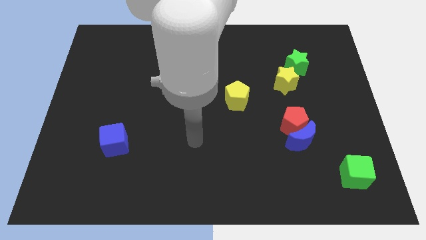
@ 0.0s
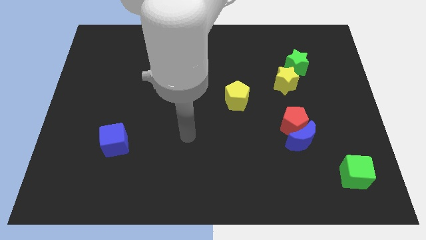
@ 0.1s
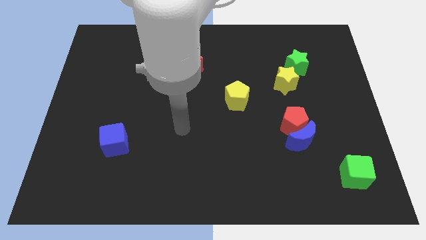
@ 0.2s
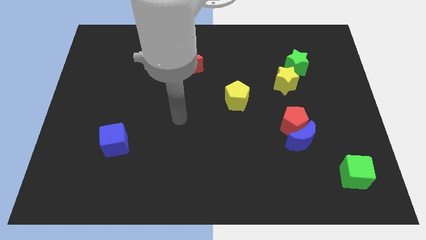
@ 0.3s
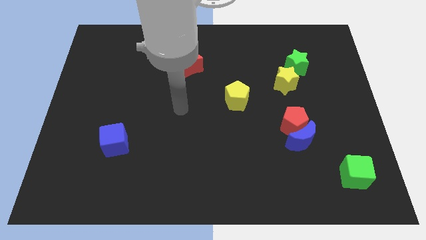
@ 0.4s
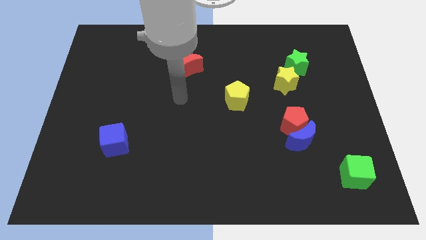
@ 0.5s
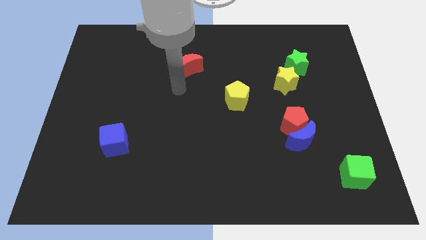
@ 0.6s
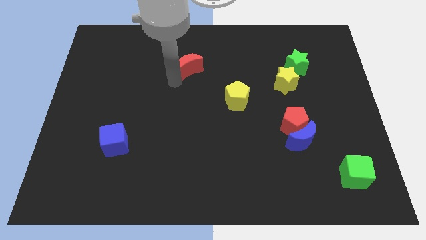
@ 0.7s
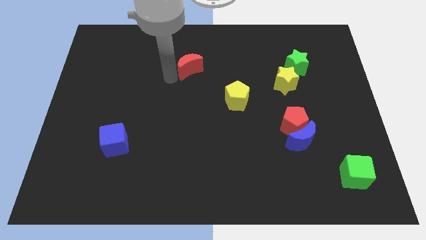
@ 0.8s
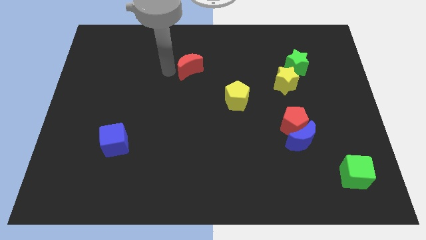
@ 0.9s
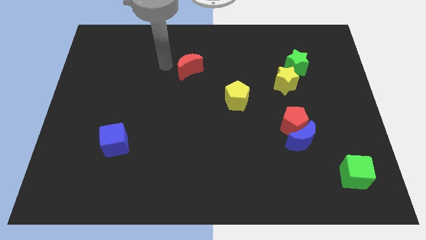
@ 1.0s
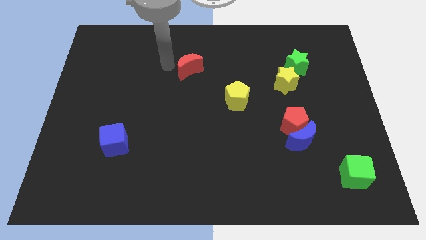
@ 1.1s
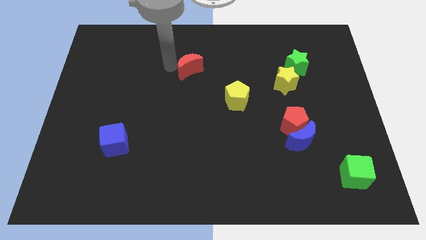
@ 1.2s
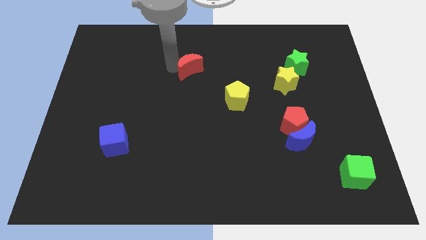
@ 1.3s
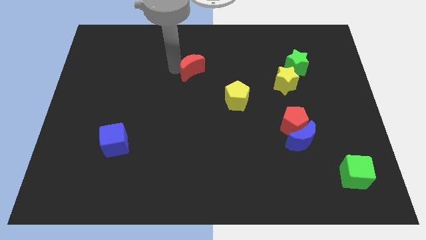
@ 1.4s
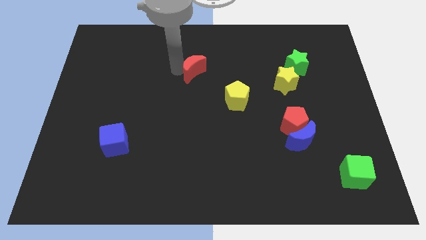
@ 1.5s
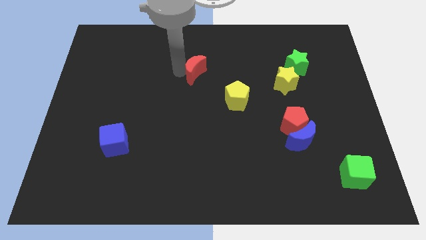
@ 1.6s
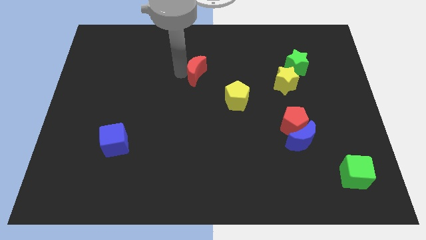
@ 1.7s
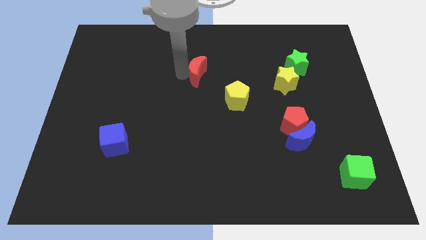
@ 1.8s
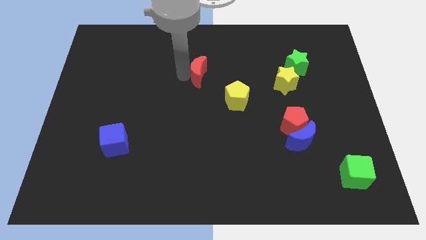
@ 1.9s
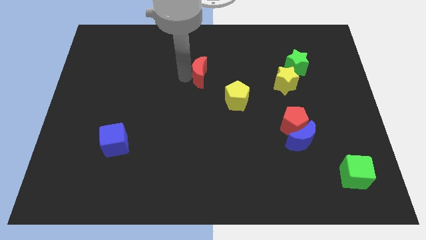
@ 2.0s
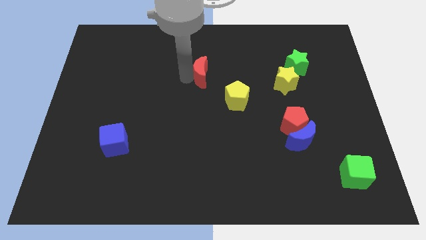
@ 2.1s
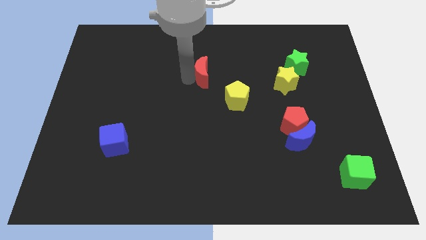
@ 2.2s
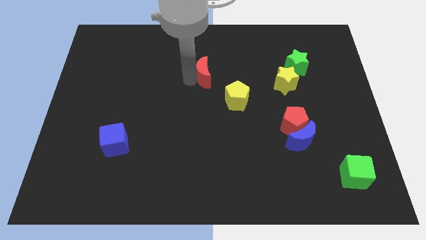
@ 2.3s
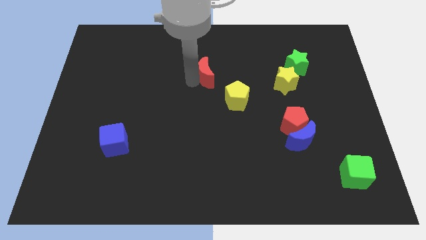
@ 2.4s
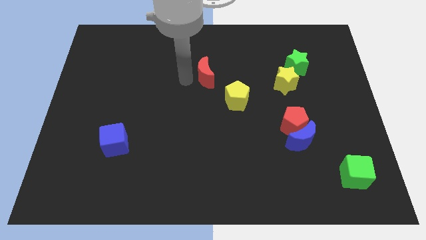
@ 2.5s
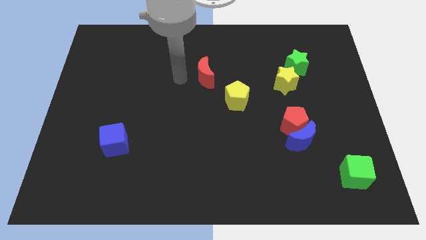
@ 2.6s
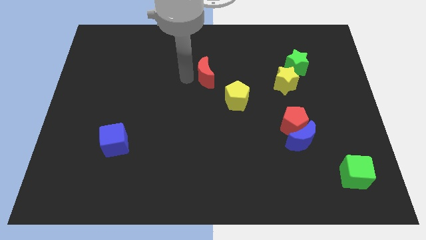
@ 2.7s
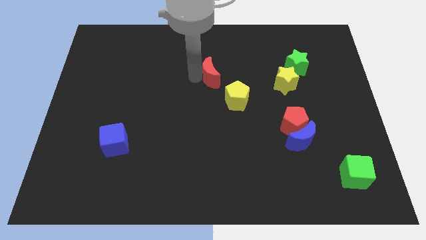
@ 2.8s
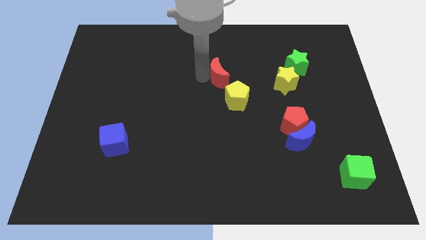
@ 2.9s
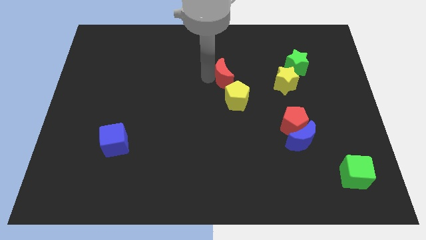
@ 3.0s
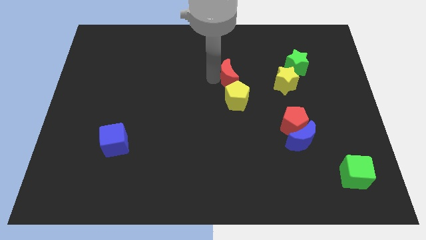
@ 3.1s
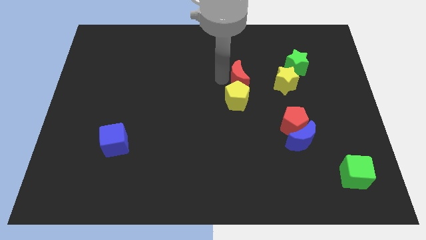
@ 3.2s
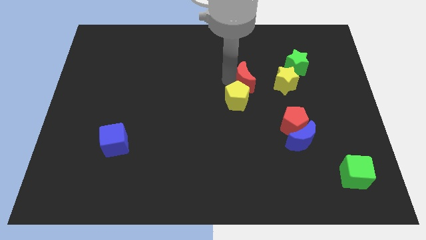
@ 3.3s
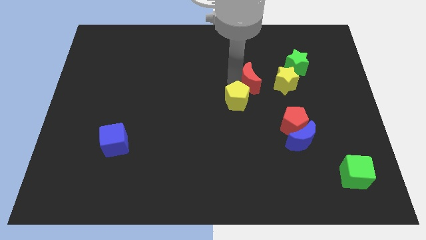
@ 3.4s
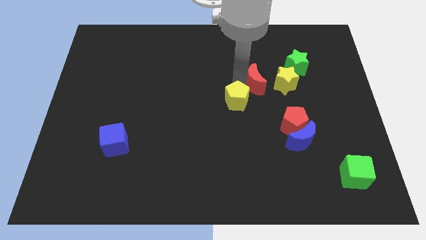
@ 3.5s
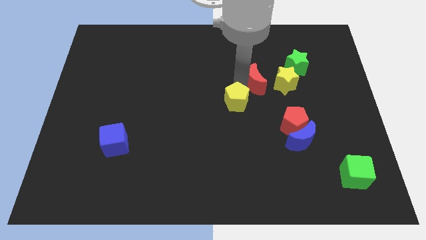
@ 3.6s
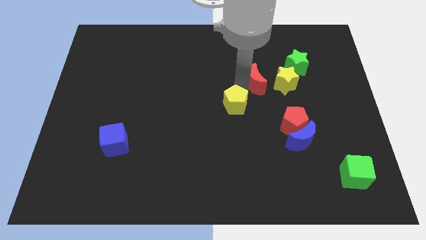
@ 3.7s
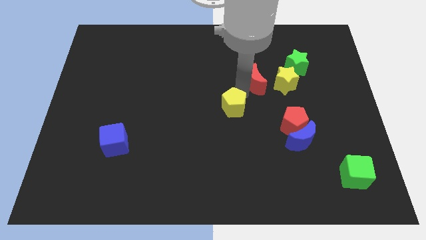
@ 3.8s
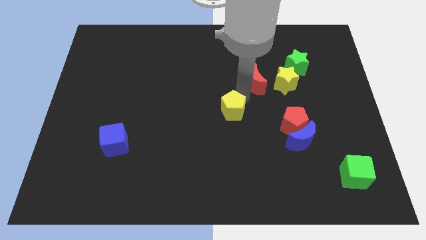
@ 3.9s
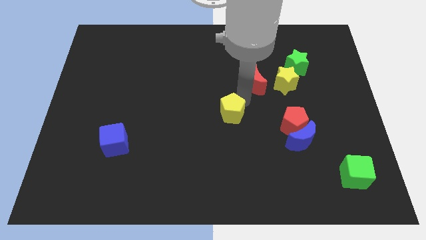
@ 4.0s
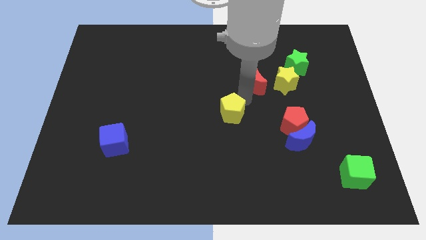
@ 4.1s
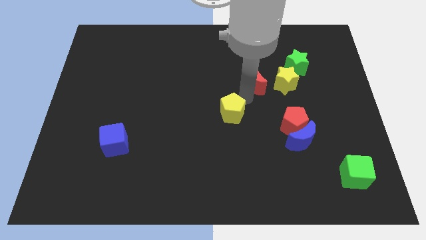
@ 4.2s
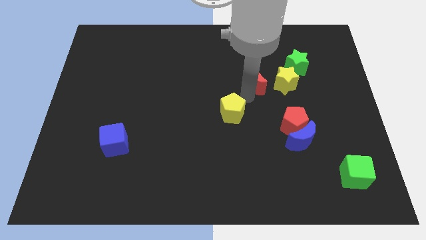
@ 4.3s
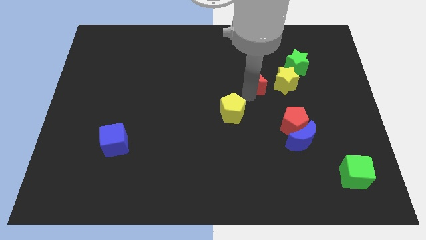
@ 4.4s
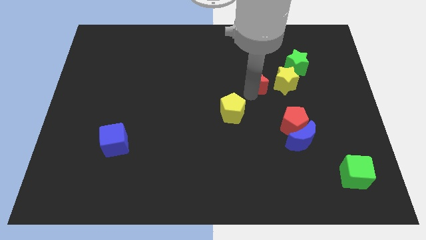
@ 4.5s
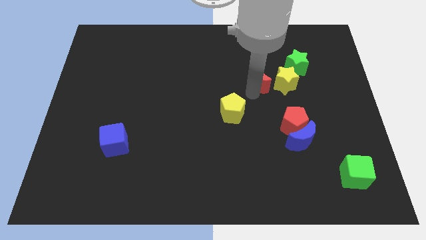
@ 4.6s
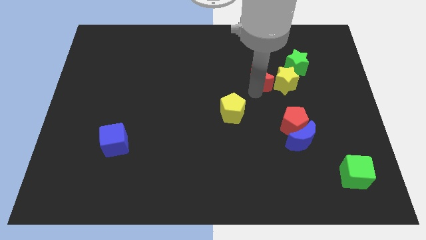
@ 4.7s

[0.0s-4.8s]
put the red moon towards the yellow star

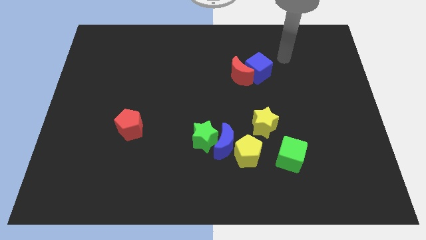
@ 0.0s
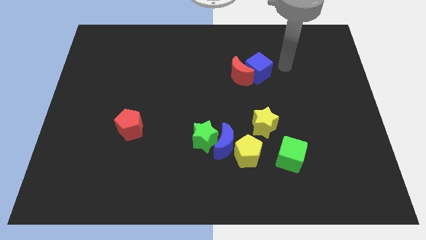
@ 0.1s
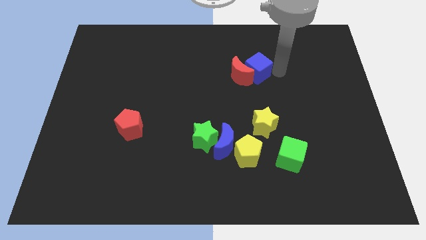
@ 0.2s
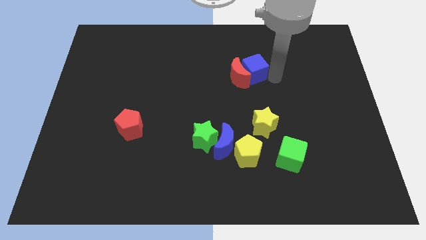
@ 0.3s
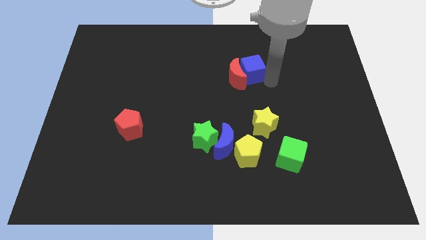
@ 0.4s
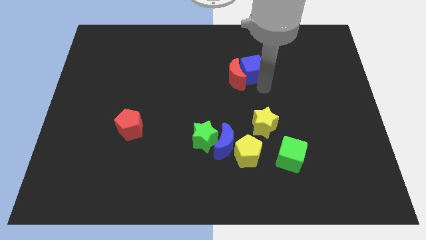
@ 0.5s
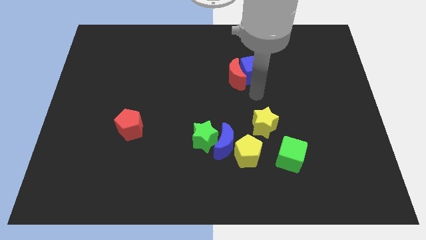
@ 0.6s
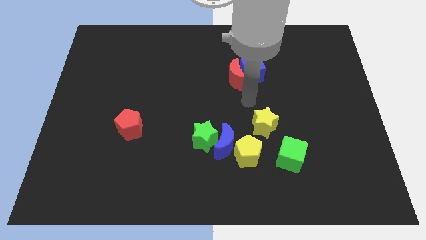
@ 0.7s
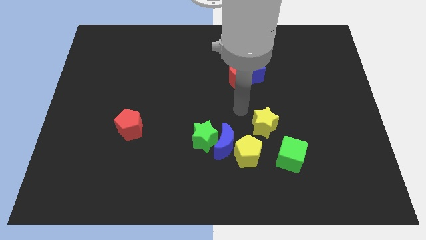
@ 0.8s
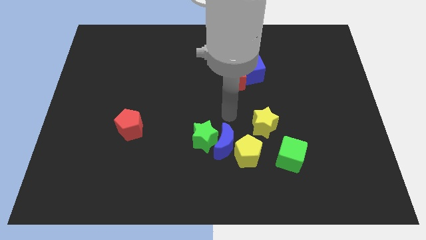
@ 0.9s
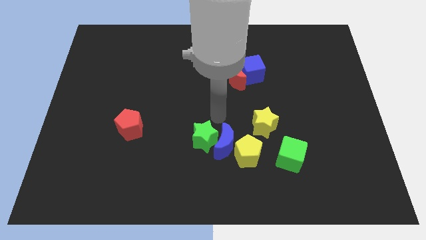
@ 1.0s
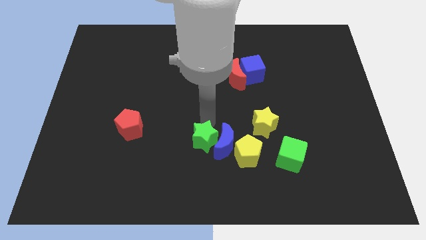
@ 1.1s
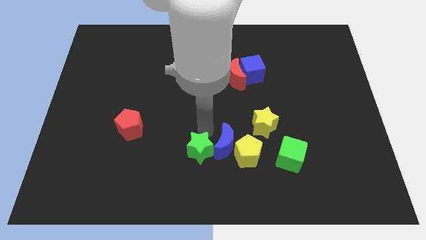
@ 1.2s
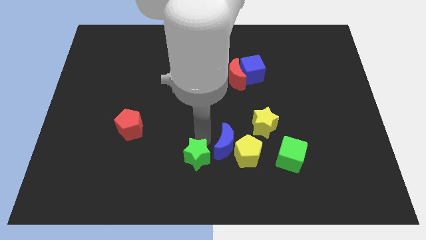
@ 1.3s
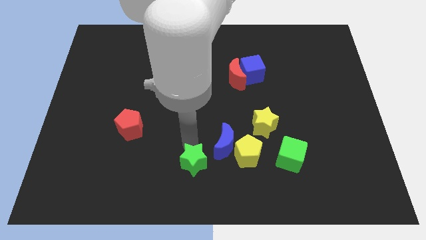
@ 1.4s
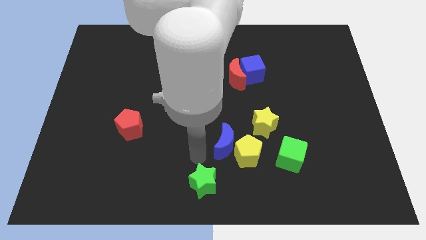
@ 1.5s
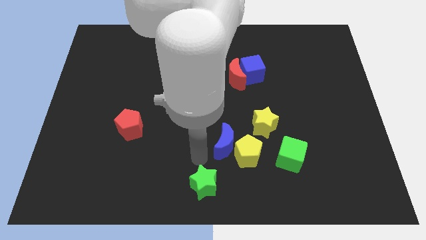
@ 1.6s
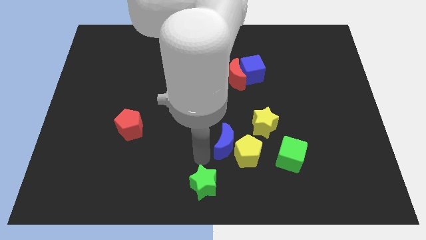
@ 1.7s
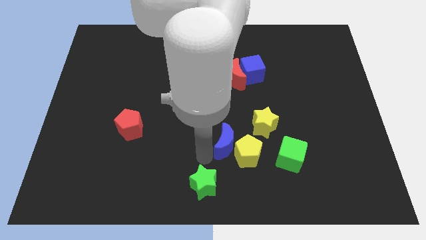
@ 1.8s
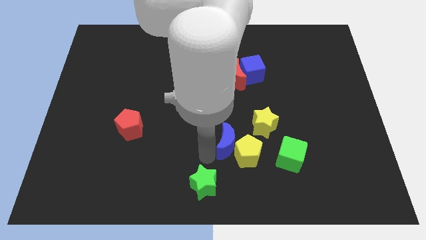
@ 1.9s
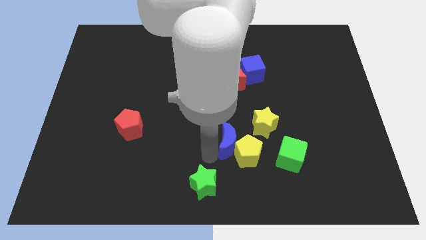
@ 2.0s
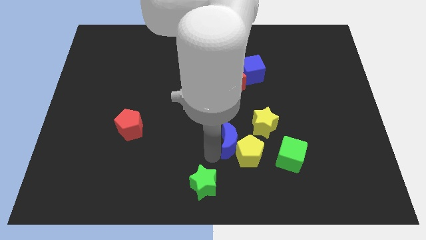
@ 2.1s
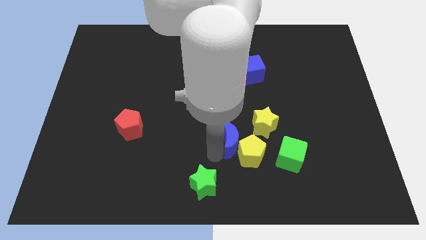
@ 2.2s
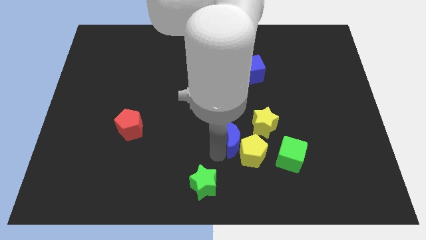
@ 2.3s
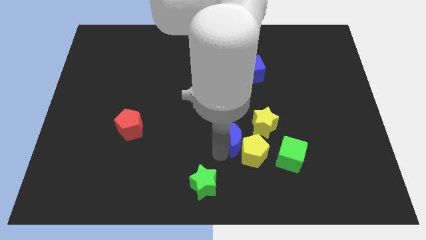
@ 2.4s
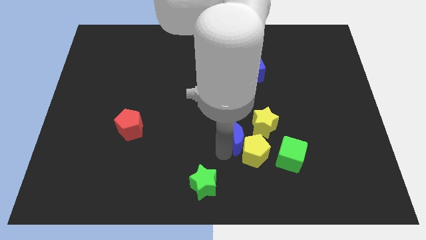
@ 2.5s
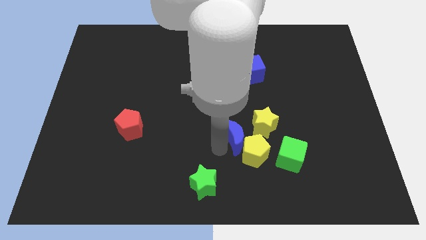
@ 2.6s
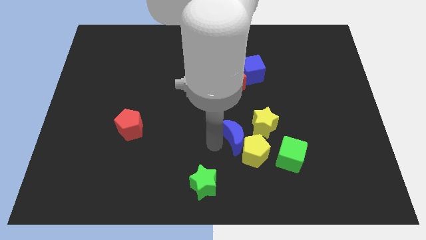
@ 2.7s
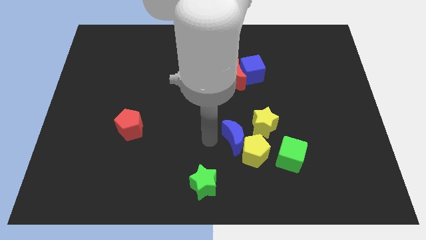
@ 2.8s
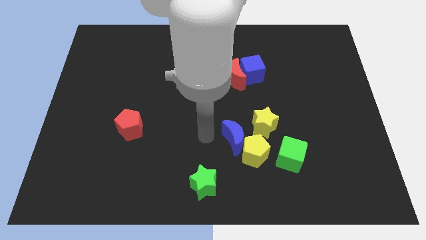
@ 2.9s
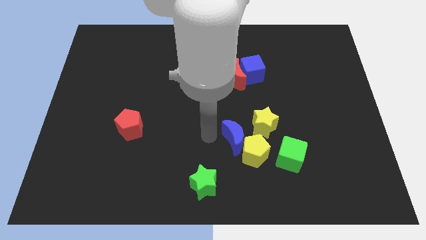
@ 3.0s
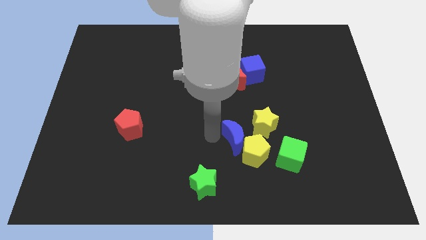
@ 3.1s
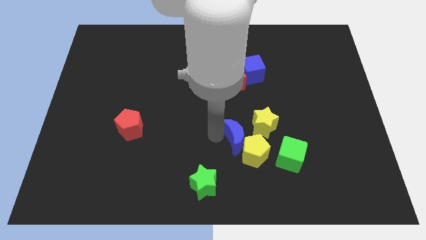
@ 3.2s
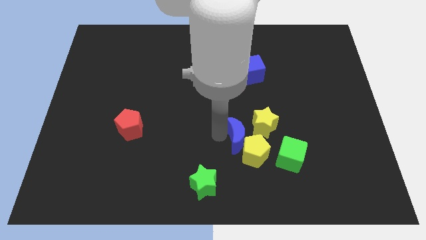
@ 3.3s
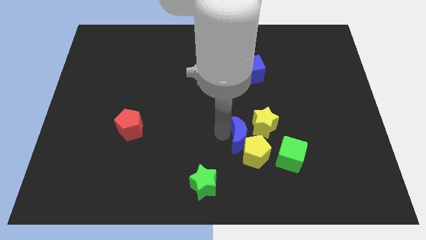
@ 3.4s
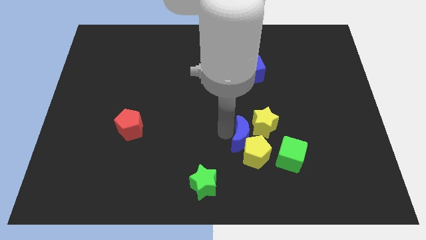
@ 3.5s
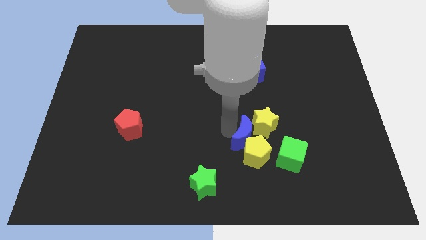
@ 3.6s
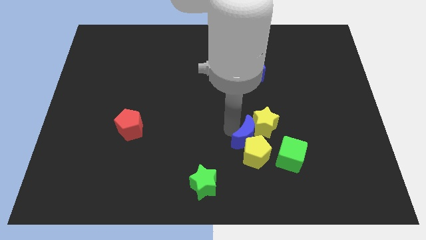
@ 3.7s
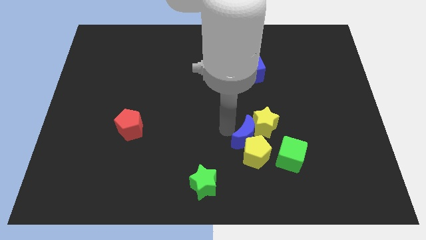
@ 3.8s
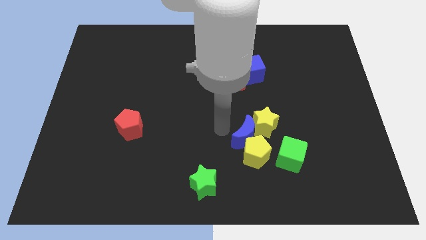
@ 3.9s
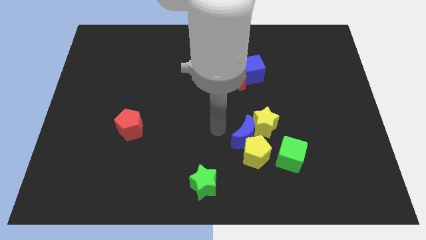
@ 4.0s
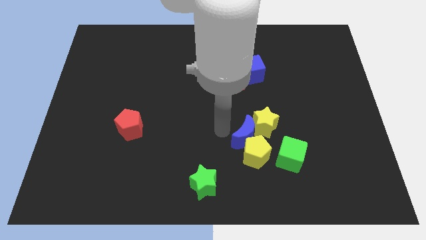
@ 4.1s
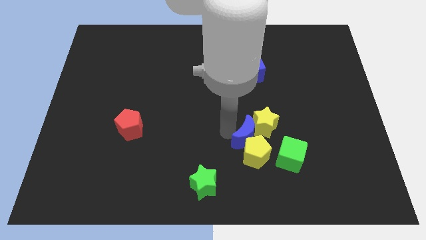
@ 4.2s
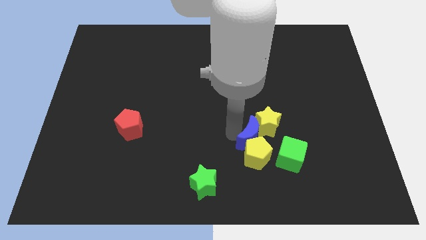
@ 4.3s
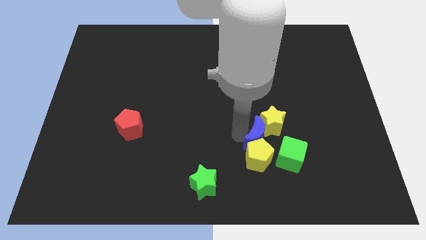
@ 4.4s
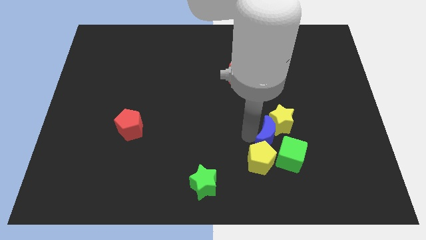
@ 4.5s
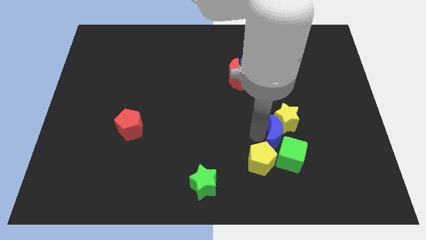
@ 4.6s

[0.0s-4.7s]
push the blue moon next to the green cube
